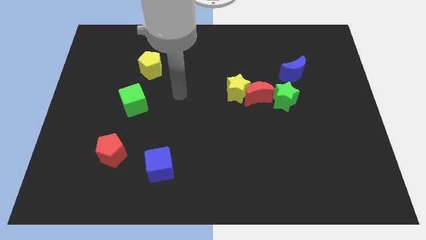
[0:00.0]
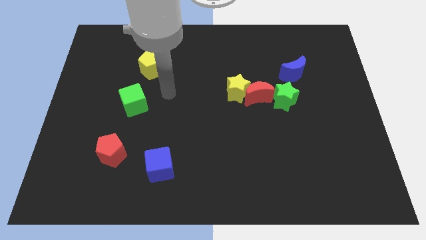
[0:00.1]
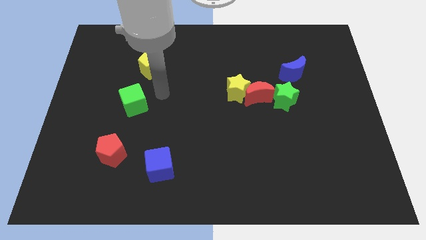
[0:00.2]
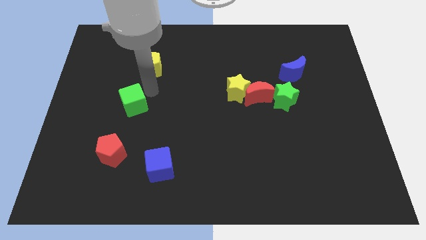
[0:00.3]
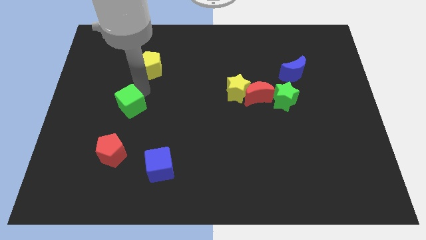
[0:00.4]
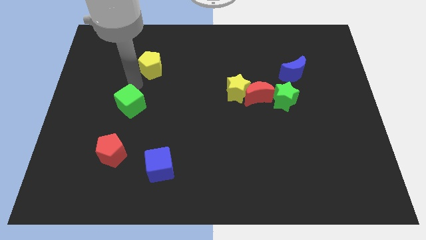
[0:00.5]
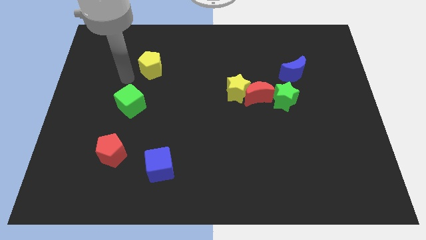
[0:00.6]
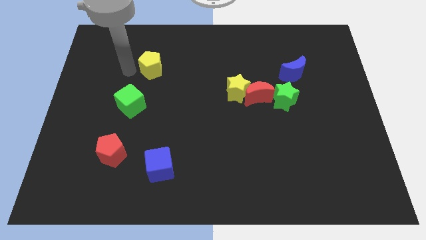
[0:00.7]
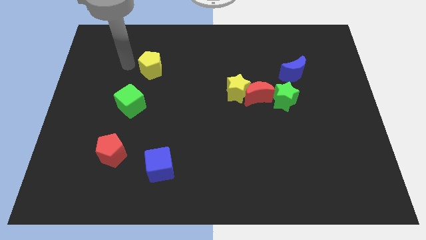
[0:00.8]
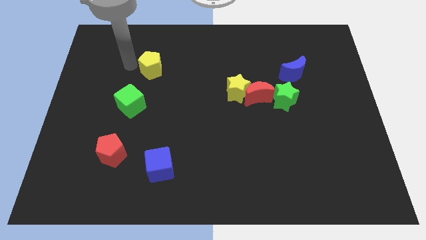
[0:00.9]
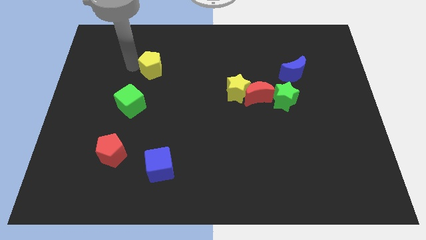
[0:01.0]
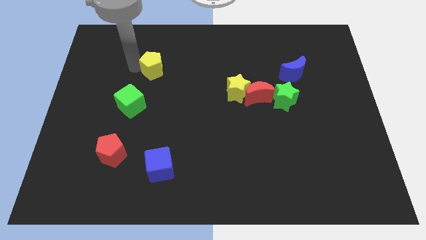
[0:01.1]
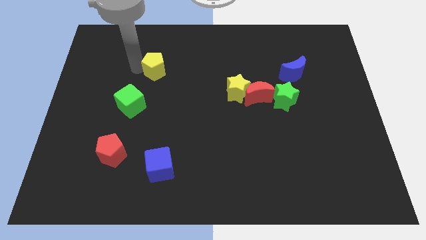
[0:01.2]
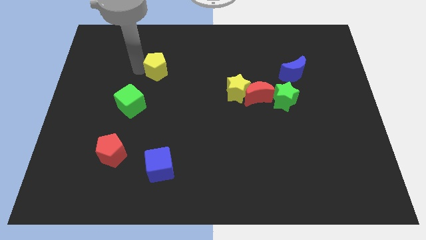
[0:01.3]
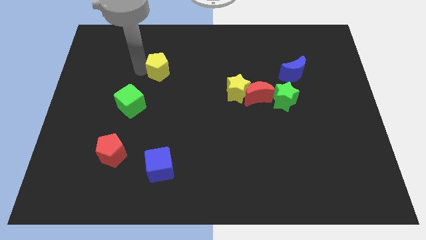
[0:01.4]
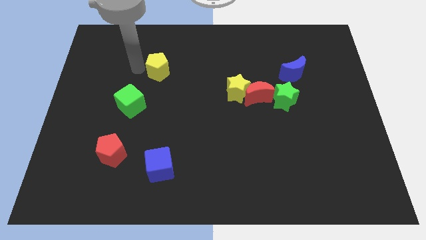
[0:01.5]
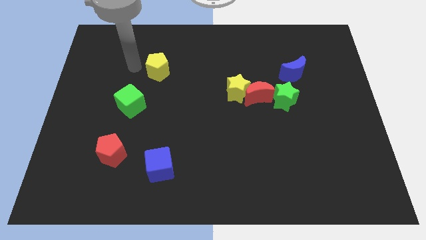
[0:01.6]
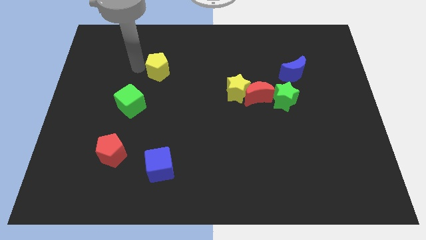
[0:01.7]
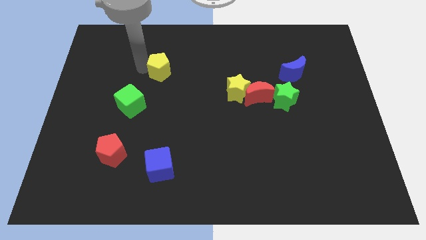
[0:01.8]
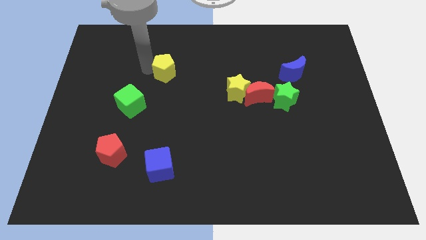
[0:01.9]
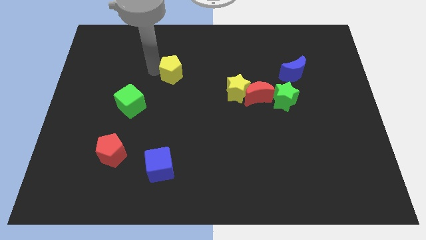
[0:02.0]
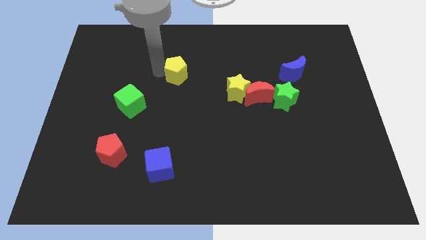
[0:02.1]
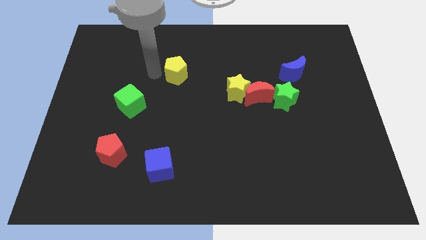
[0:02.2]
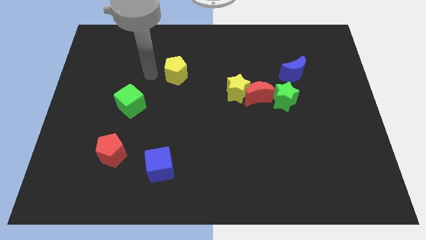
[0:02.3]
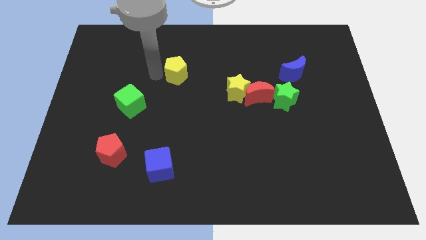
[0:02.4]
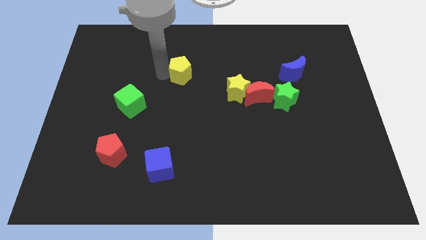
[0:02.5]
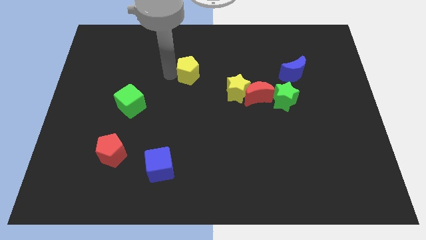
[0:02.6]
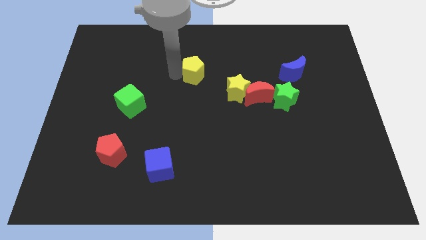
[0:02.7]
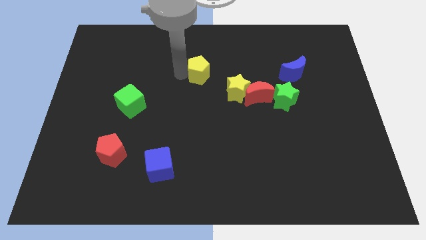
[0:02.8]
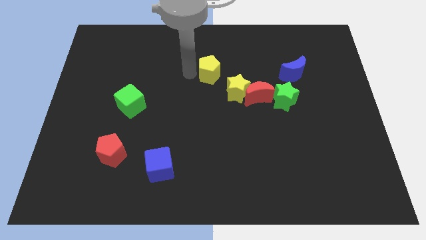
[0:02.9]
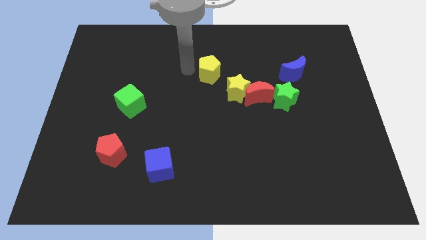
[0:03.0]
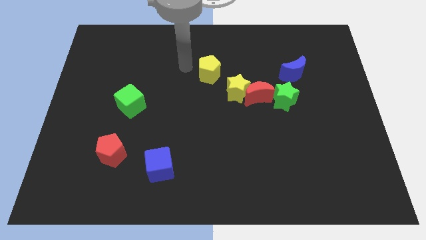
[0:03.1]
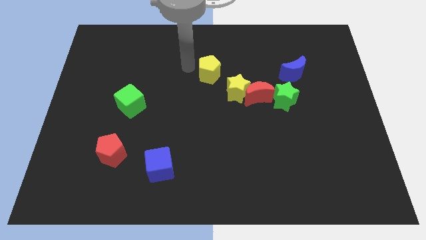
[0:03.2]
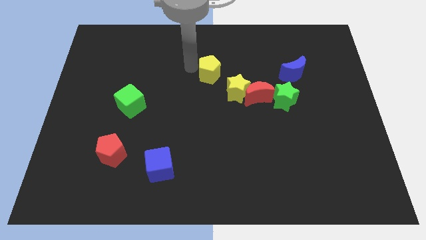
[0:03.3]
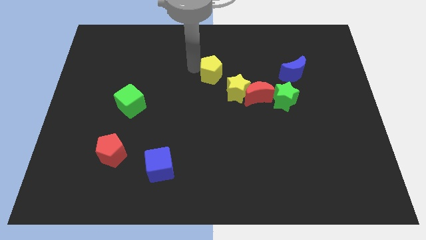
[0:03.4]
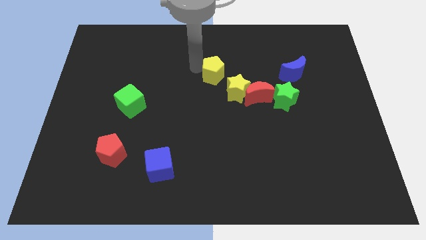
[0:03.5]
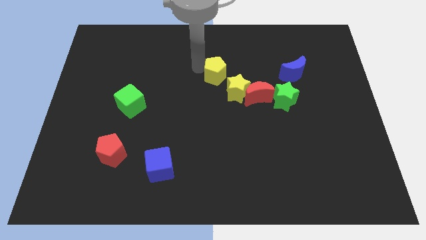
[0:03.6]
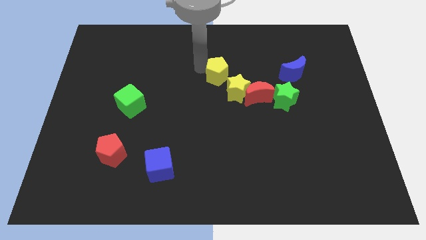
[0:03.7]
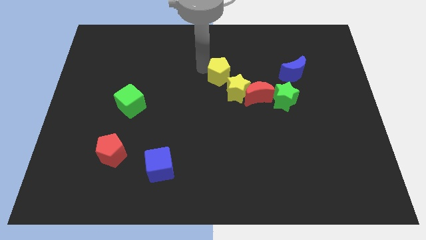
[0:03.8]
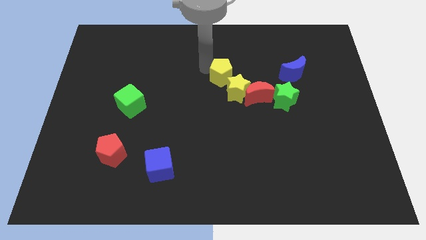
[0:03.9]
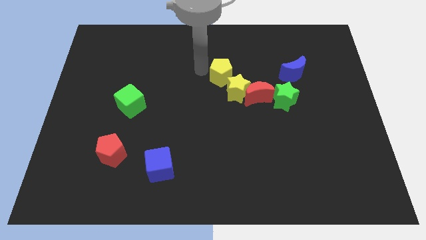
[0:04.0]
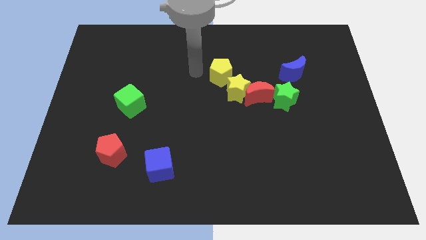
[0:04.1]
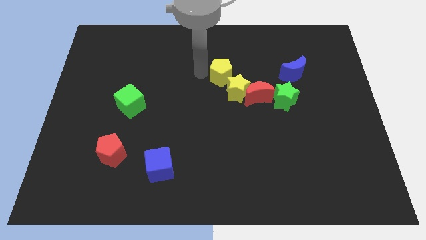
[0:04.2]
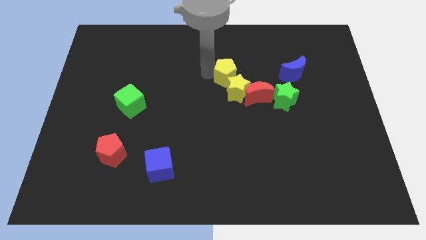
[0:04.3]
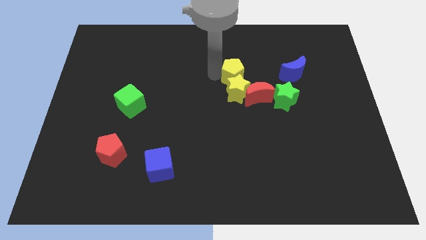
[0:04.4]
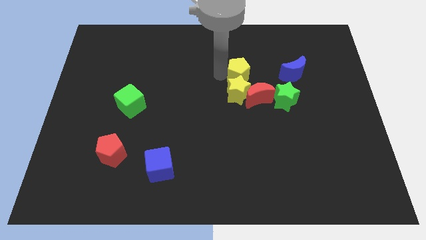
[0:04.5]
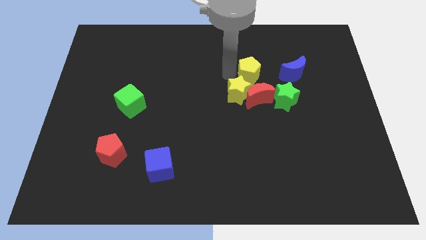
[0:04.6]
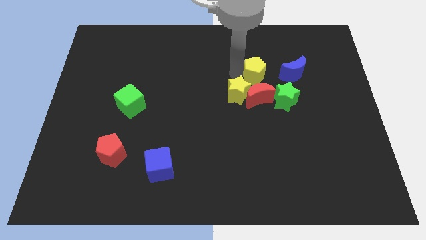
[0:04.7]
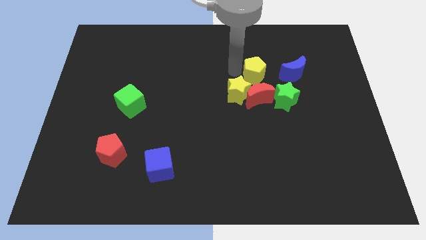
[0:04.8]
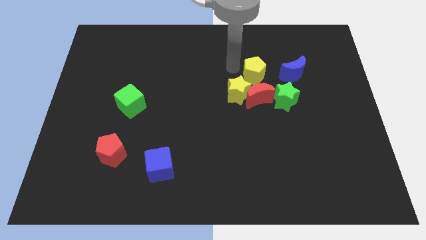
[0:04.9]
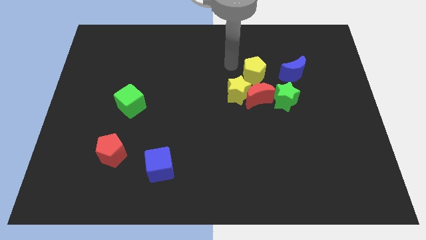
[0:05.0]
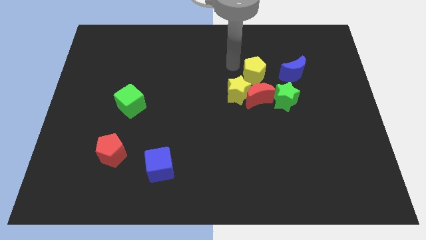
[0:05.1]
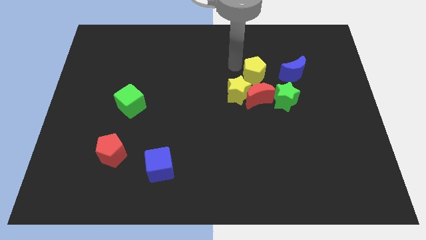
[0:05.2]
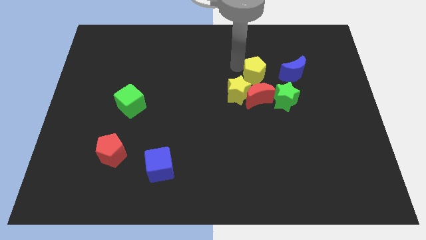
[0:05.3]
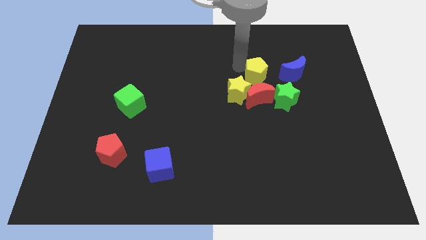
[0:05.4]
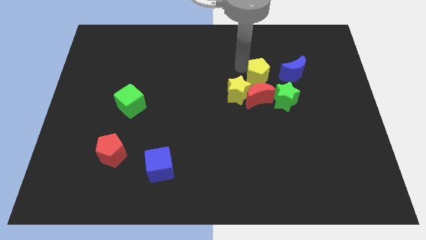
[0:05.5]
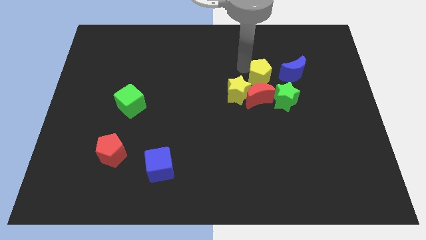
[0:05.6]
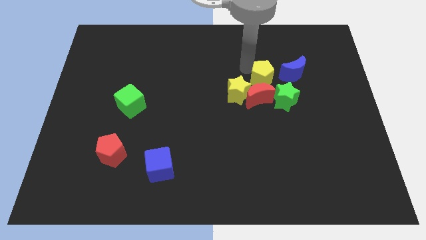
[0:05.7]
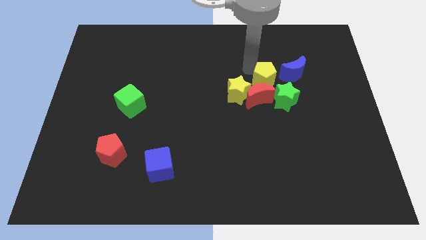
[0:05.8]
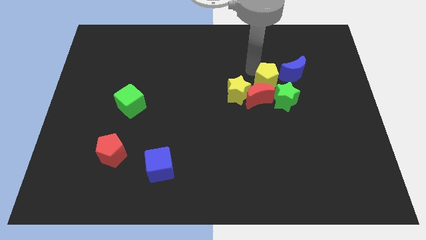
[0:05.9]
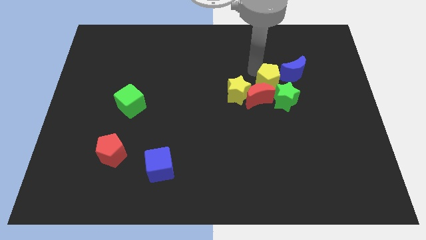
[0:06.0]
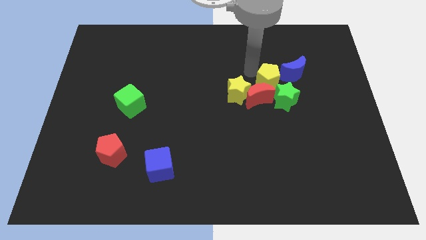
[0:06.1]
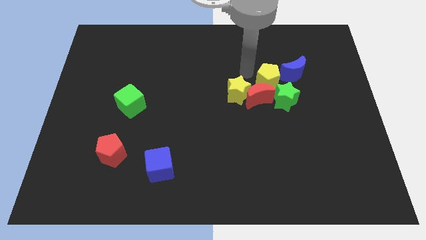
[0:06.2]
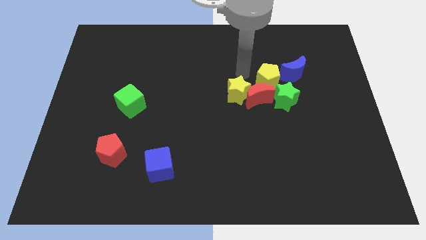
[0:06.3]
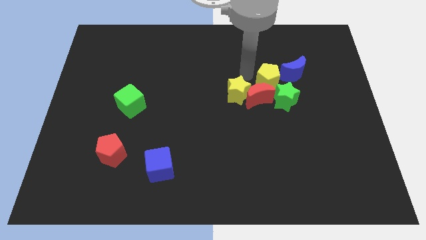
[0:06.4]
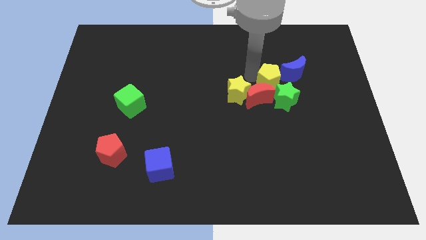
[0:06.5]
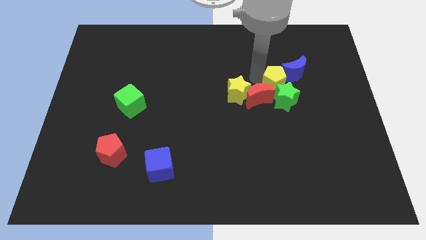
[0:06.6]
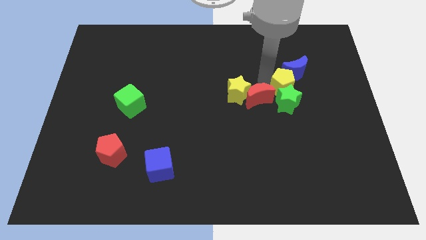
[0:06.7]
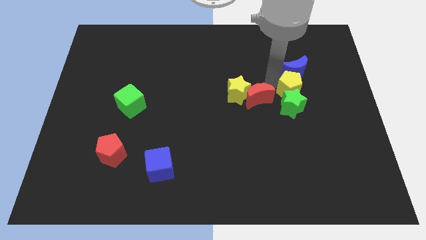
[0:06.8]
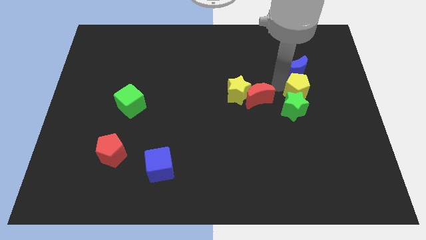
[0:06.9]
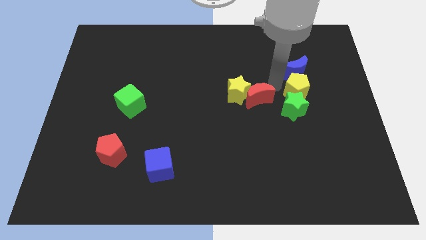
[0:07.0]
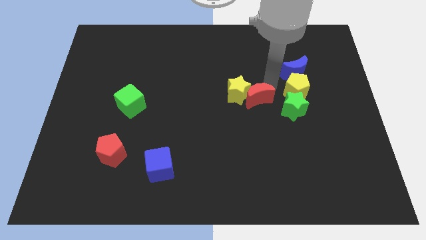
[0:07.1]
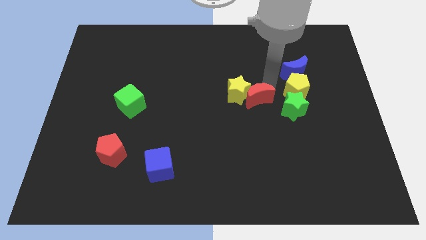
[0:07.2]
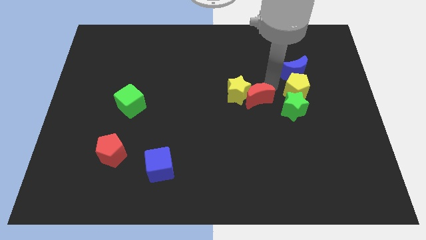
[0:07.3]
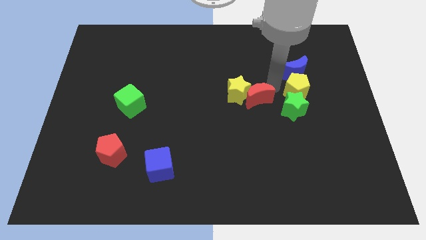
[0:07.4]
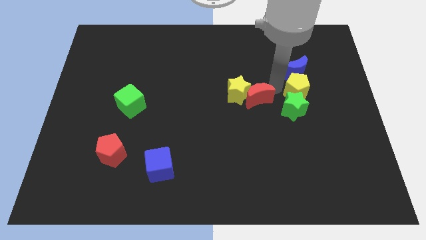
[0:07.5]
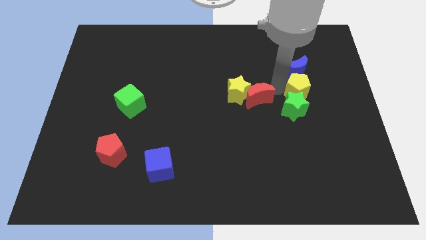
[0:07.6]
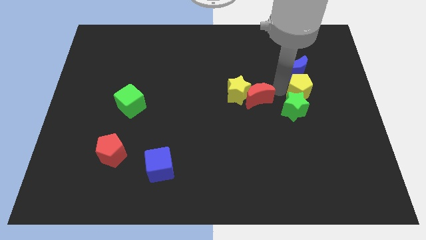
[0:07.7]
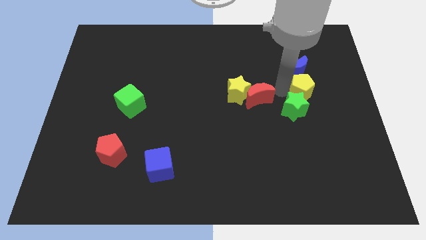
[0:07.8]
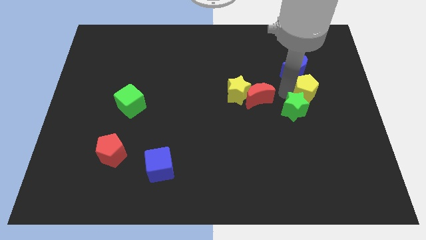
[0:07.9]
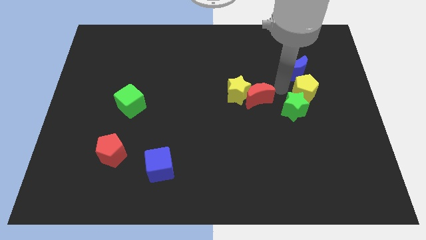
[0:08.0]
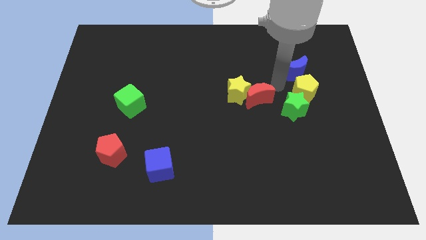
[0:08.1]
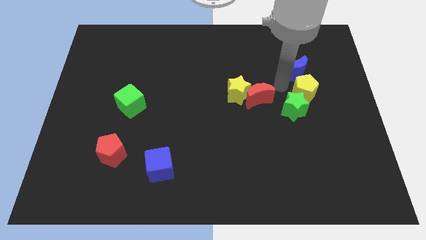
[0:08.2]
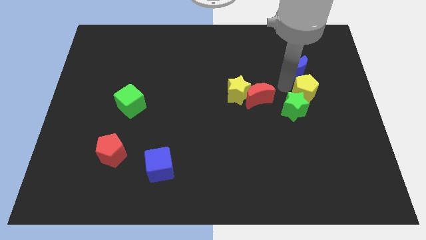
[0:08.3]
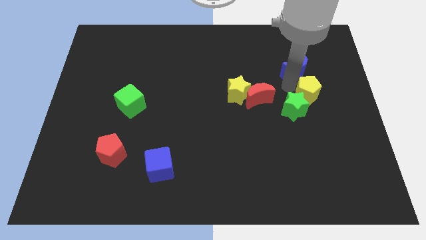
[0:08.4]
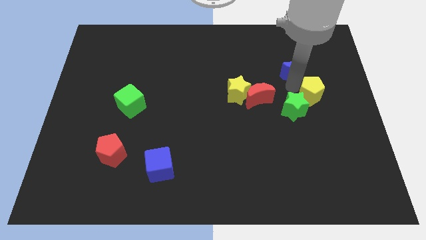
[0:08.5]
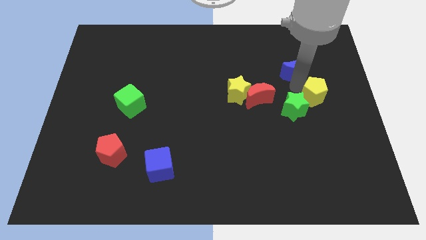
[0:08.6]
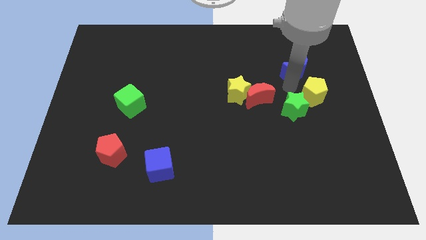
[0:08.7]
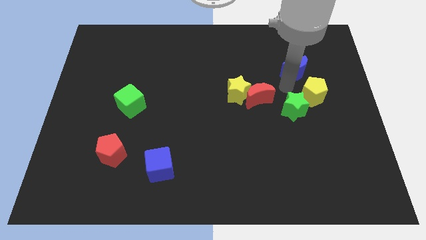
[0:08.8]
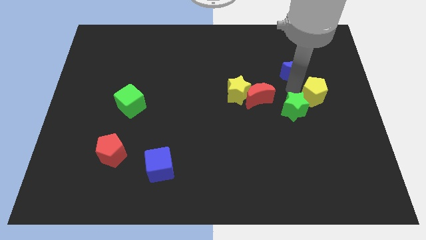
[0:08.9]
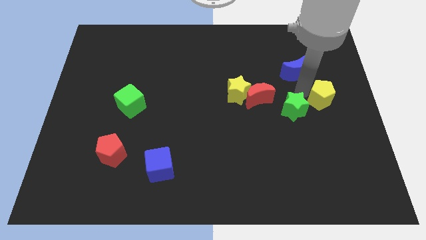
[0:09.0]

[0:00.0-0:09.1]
slide the yellow pentagon to the right side
